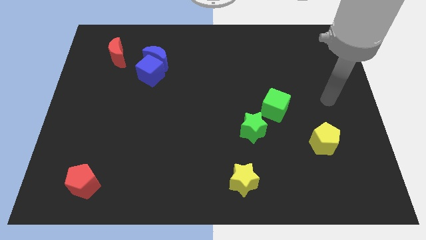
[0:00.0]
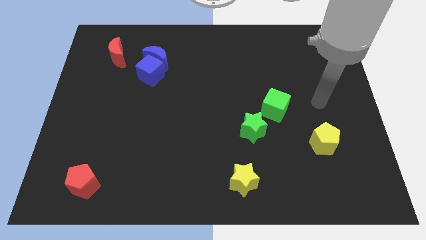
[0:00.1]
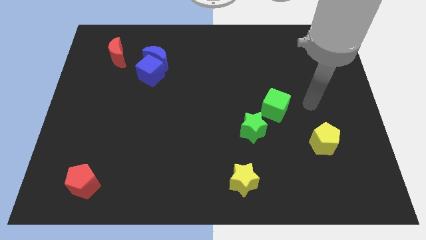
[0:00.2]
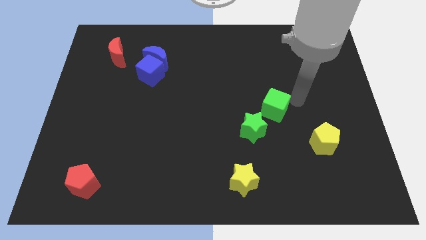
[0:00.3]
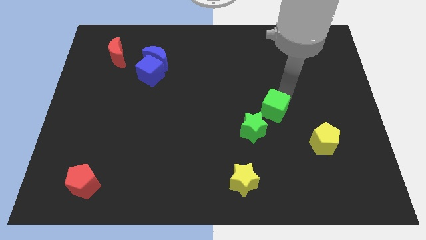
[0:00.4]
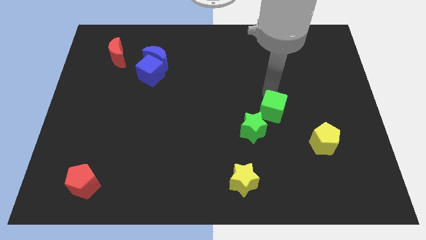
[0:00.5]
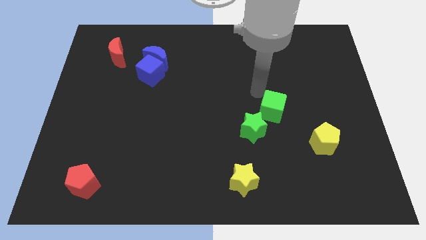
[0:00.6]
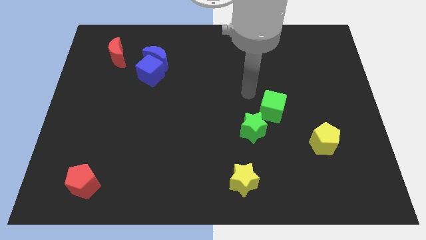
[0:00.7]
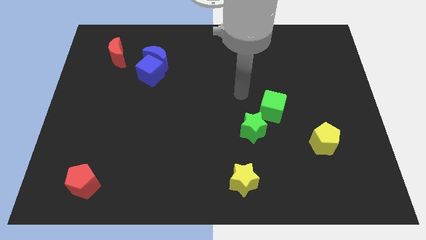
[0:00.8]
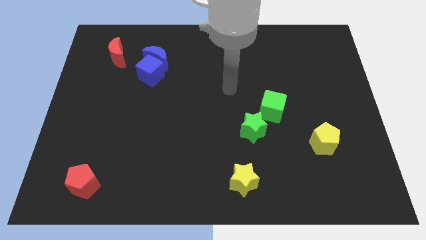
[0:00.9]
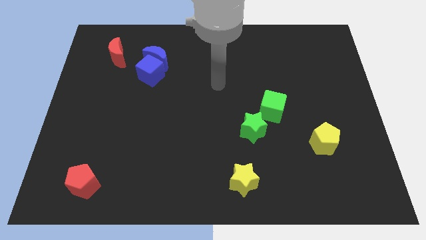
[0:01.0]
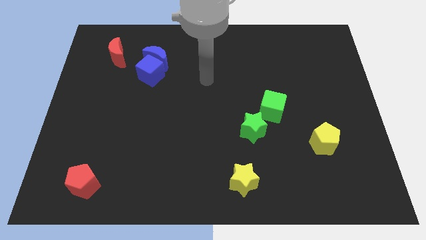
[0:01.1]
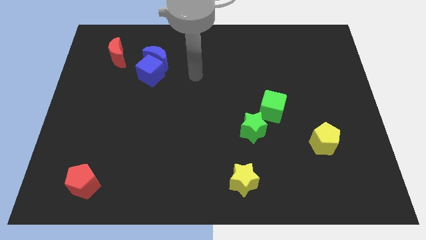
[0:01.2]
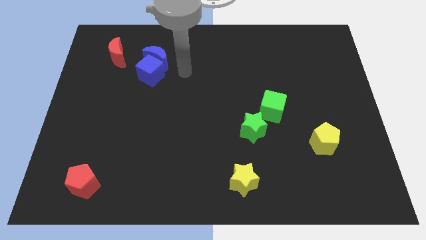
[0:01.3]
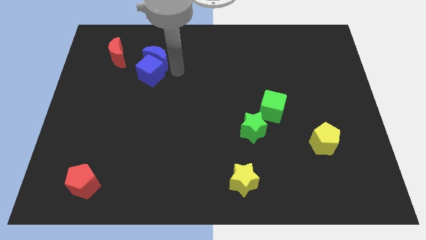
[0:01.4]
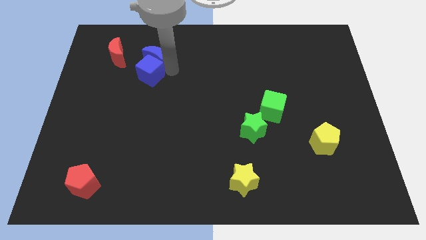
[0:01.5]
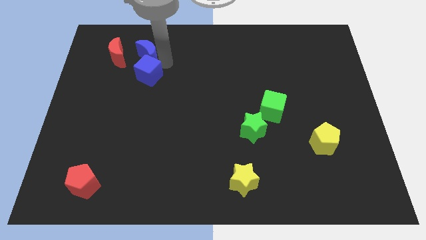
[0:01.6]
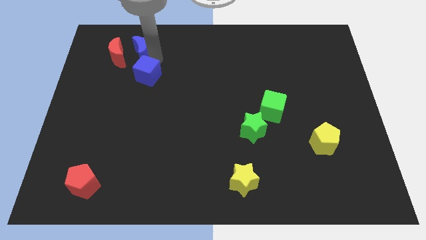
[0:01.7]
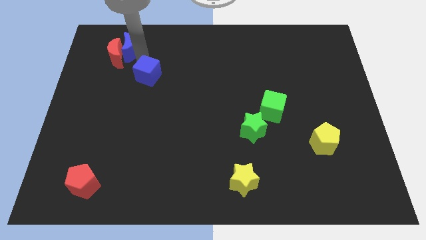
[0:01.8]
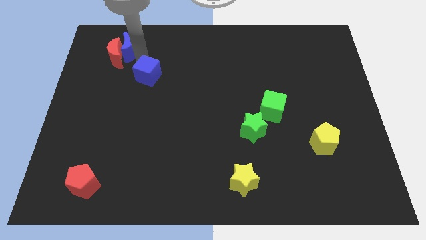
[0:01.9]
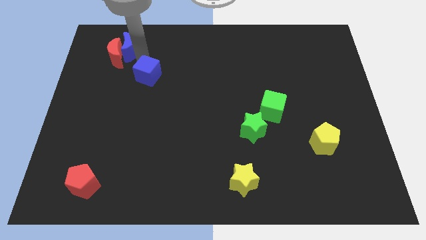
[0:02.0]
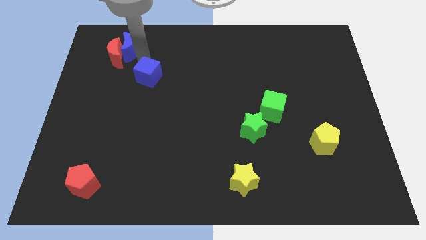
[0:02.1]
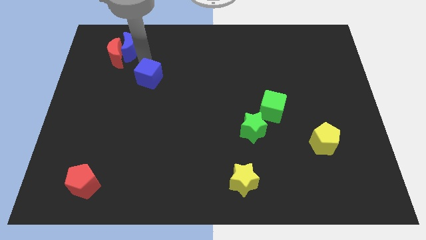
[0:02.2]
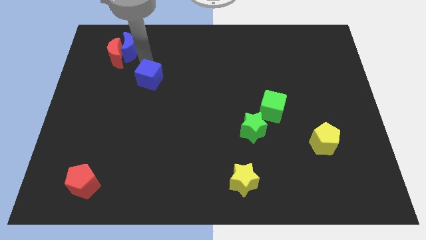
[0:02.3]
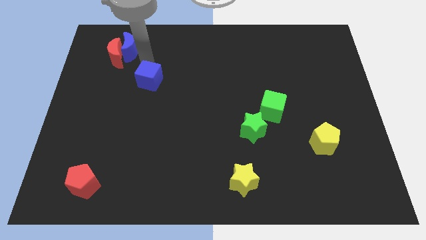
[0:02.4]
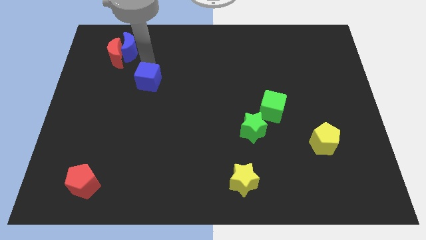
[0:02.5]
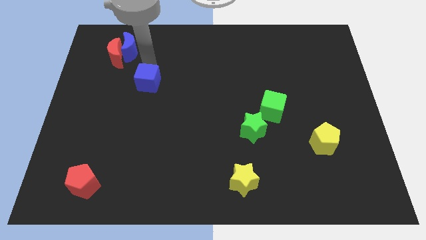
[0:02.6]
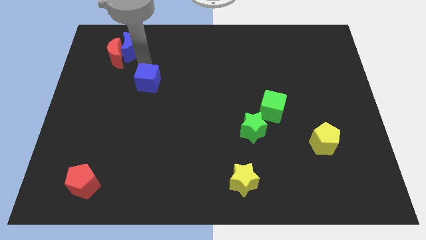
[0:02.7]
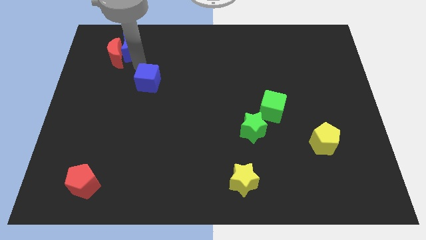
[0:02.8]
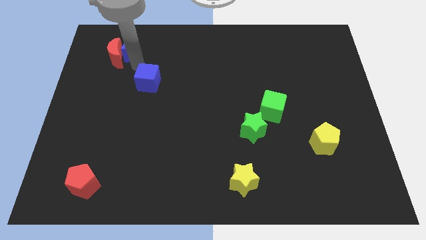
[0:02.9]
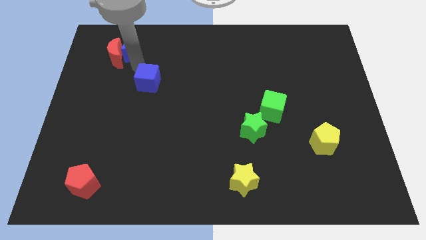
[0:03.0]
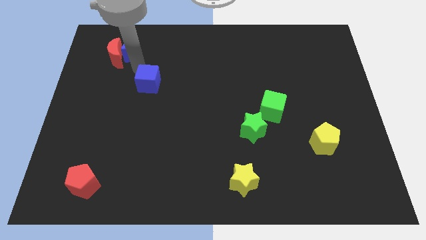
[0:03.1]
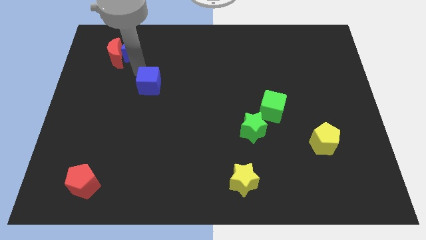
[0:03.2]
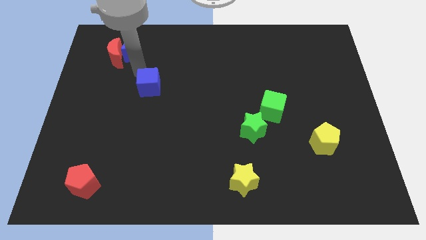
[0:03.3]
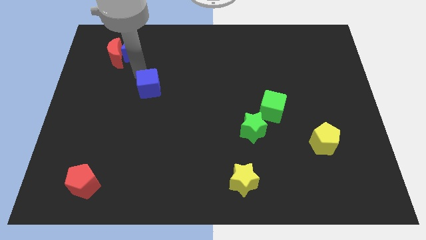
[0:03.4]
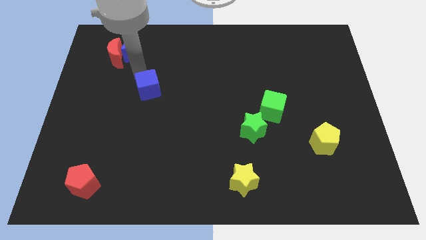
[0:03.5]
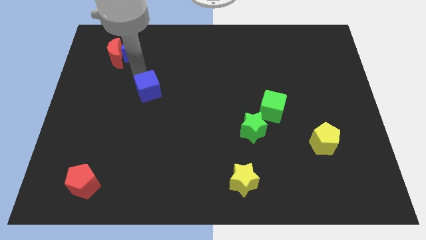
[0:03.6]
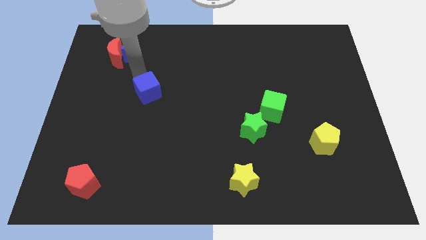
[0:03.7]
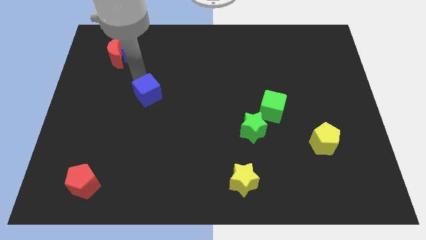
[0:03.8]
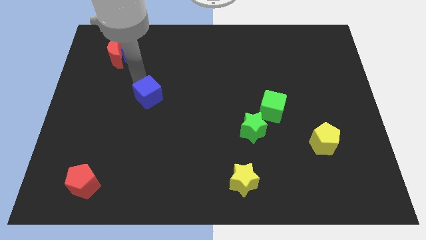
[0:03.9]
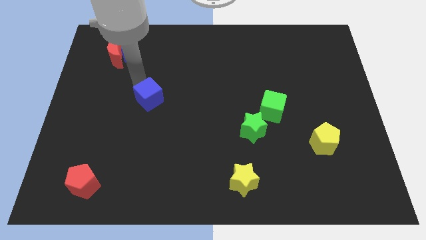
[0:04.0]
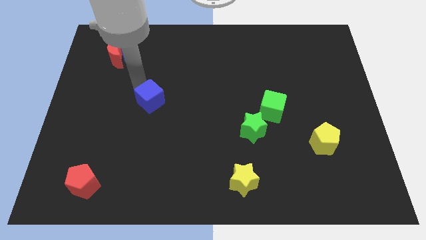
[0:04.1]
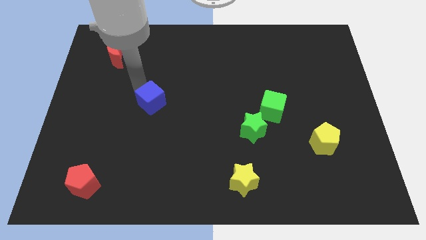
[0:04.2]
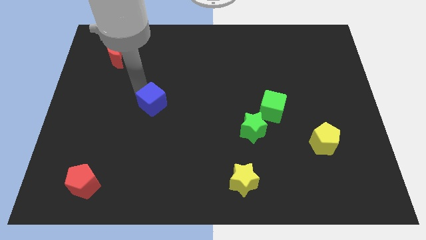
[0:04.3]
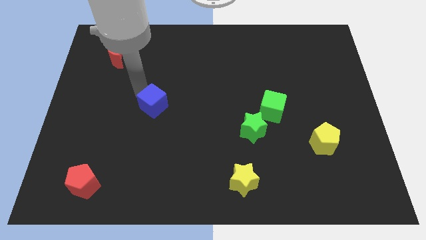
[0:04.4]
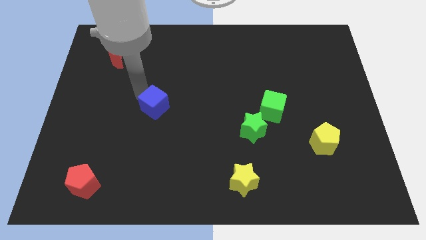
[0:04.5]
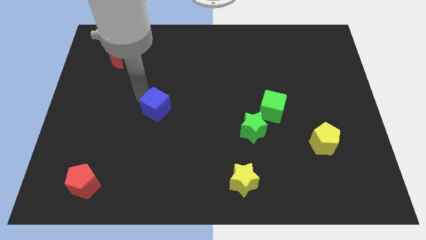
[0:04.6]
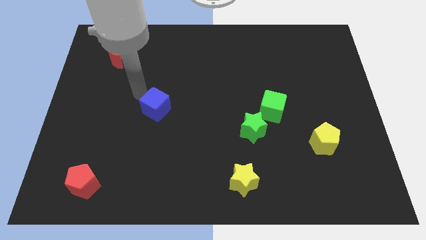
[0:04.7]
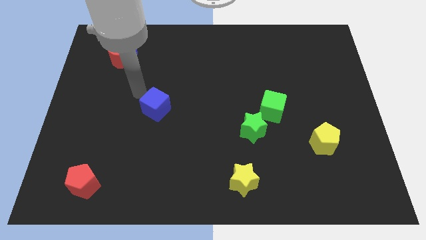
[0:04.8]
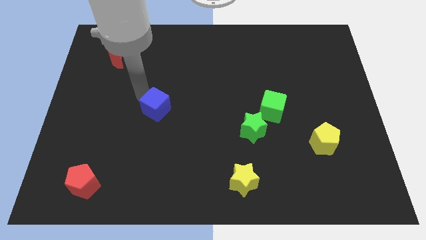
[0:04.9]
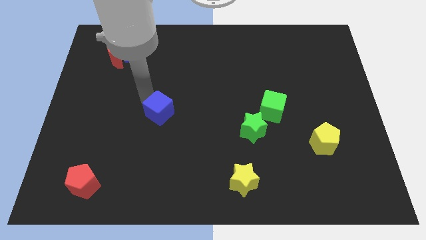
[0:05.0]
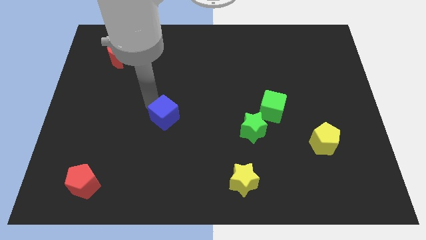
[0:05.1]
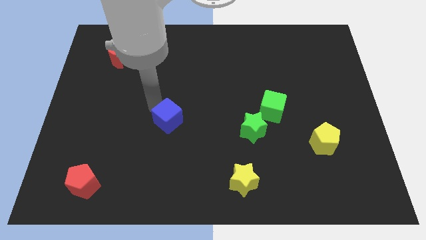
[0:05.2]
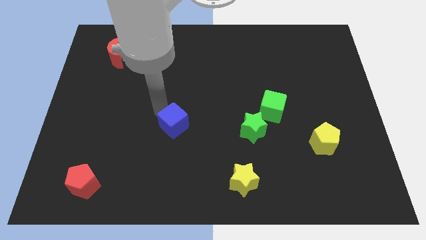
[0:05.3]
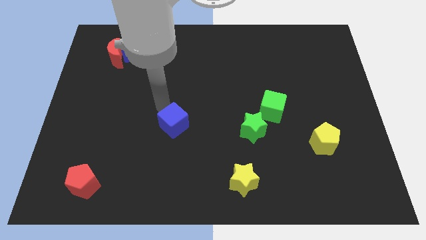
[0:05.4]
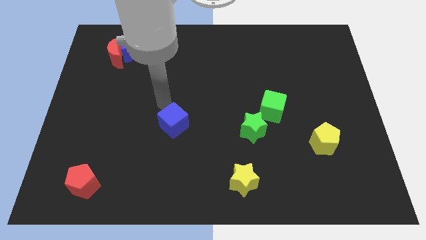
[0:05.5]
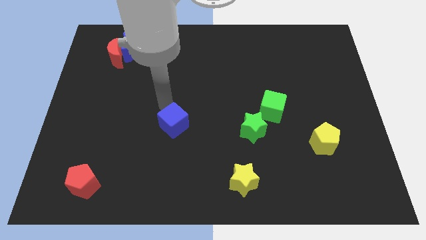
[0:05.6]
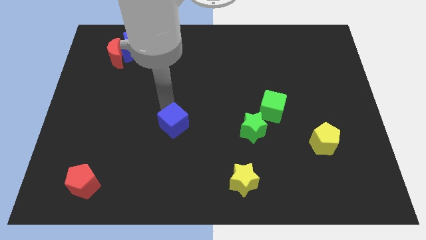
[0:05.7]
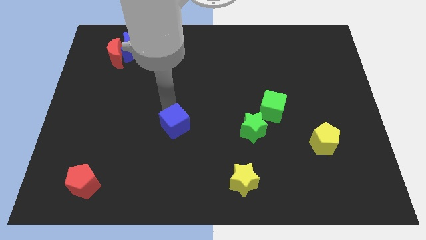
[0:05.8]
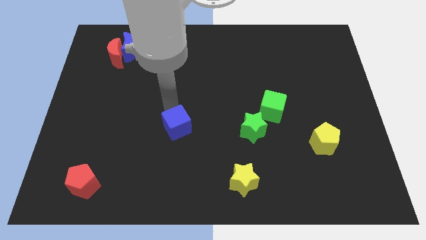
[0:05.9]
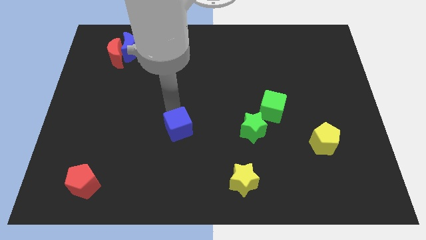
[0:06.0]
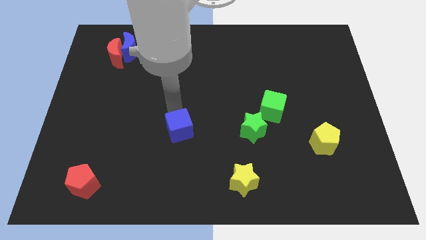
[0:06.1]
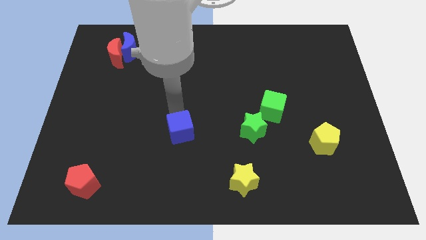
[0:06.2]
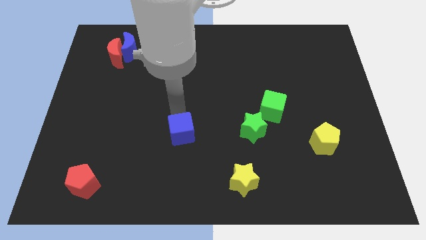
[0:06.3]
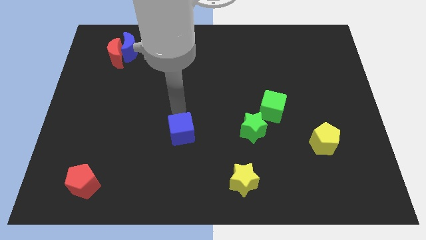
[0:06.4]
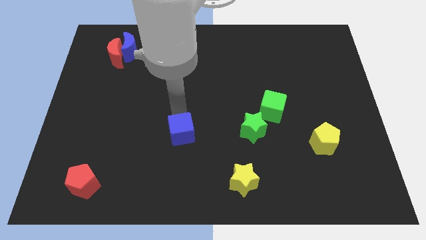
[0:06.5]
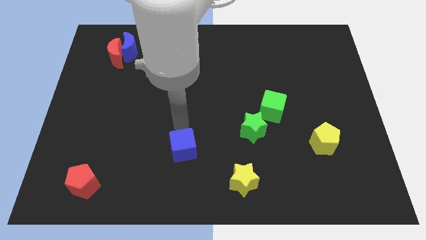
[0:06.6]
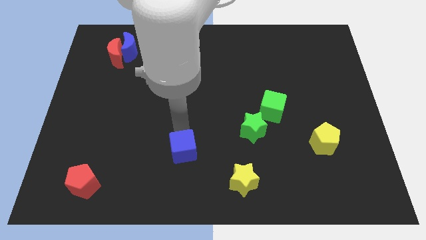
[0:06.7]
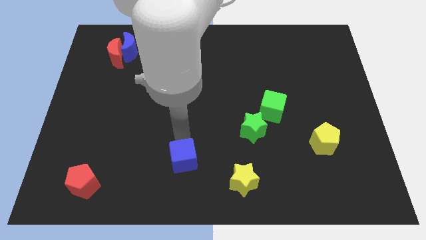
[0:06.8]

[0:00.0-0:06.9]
slide the blue cube to the bottom
